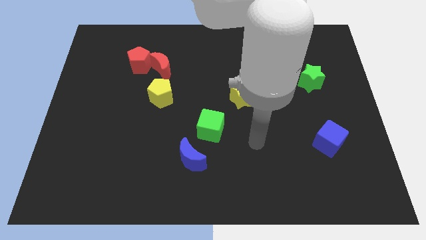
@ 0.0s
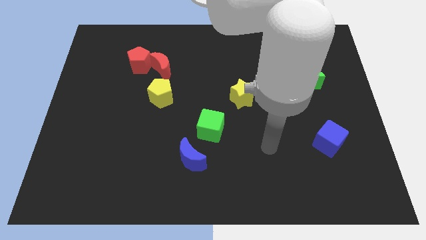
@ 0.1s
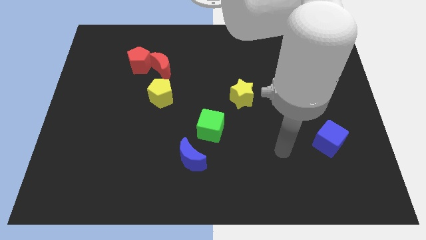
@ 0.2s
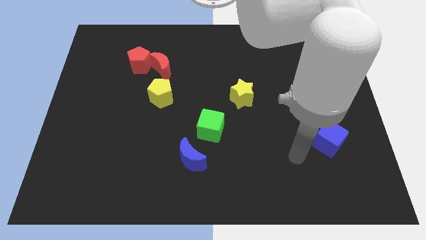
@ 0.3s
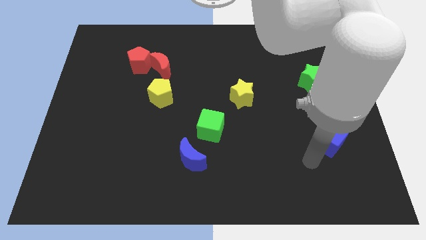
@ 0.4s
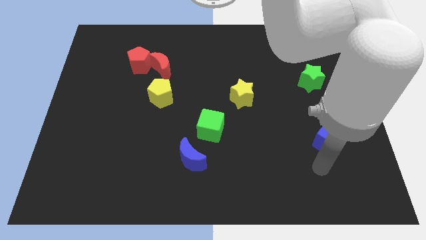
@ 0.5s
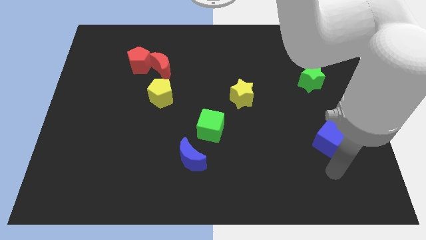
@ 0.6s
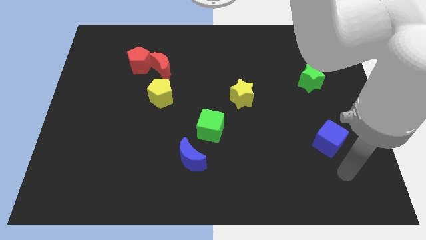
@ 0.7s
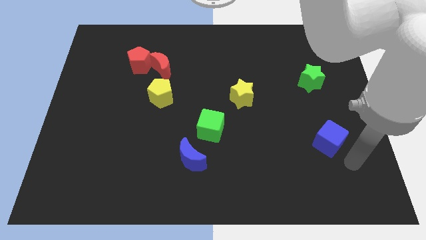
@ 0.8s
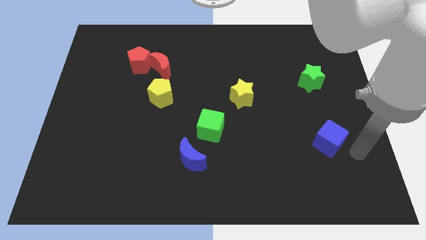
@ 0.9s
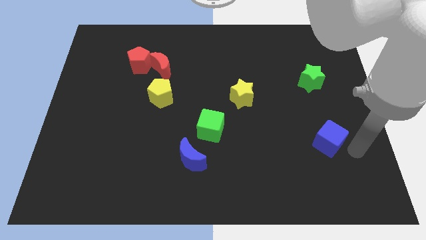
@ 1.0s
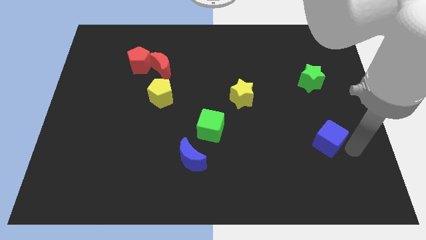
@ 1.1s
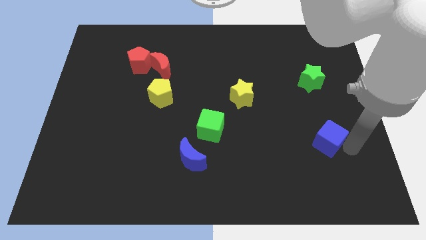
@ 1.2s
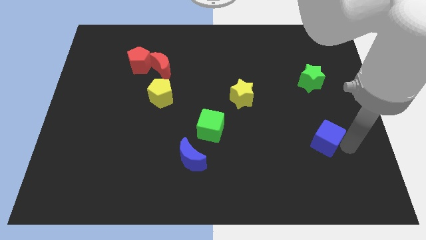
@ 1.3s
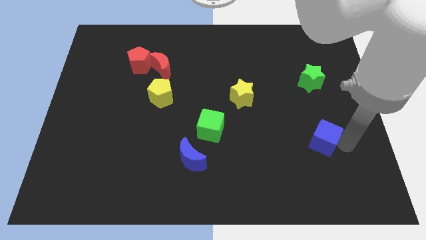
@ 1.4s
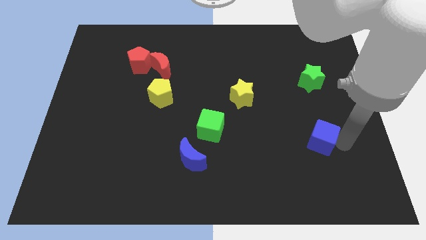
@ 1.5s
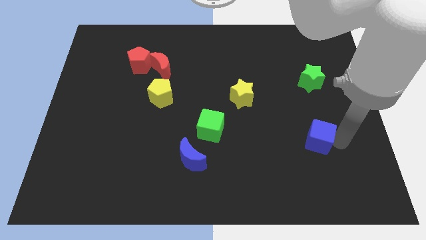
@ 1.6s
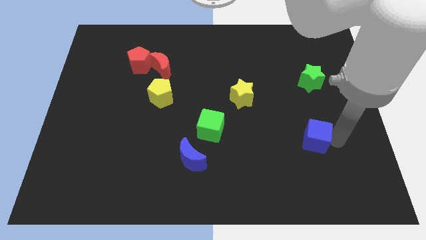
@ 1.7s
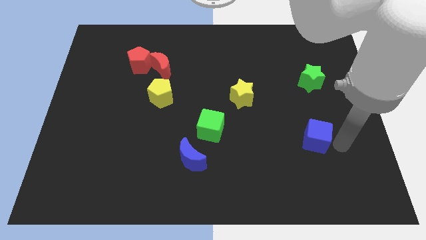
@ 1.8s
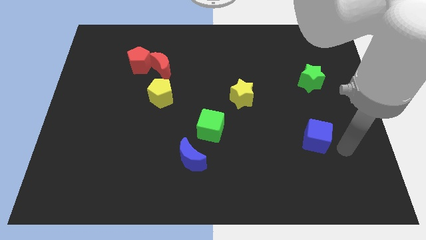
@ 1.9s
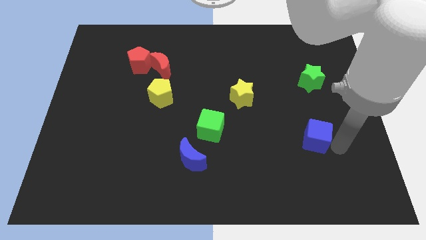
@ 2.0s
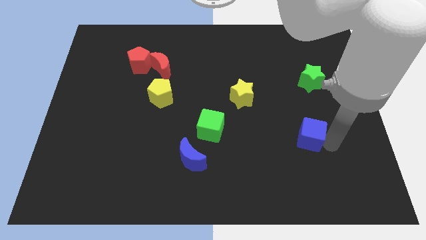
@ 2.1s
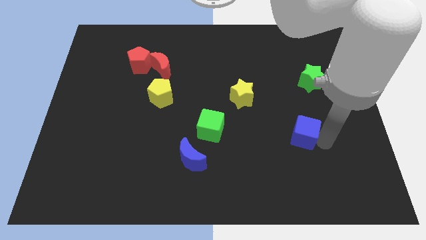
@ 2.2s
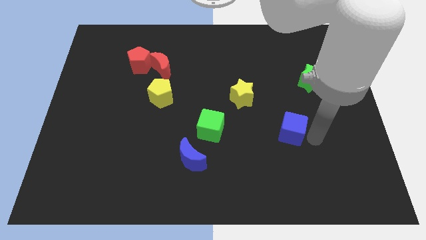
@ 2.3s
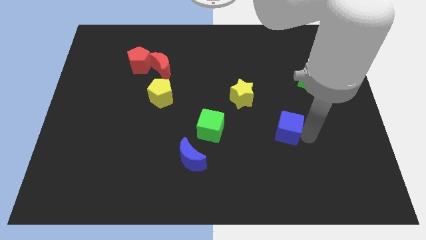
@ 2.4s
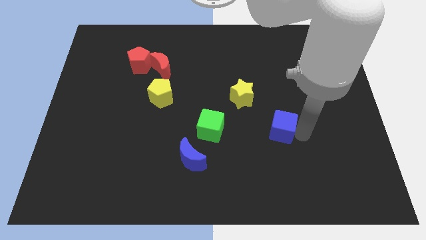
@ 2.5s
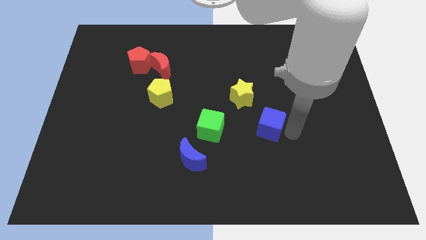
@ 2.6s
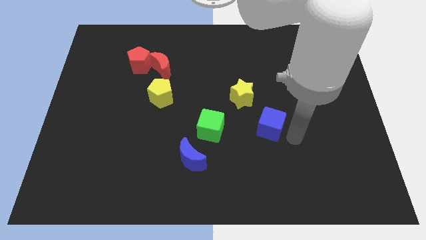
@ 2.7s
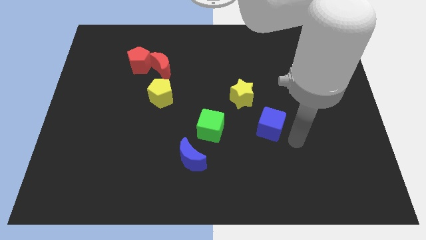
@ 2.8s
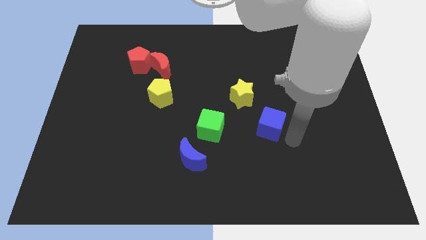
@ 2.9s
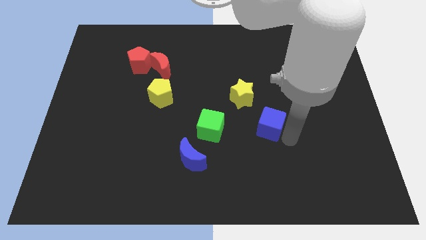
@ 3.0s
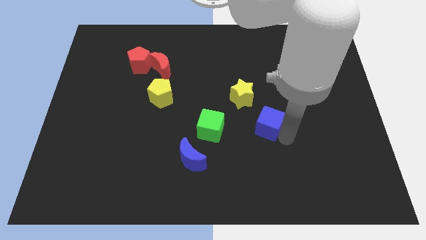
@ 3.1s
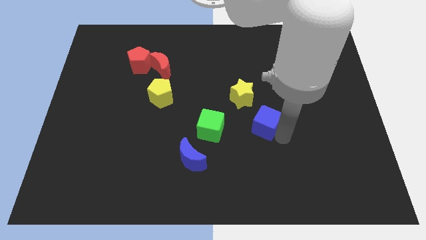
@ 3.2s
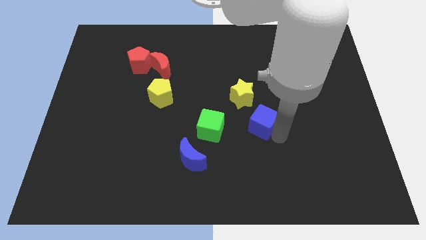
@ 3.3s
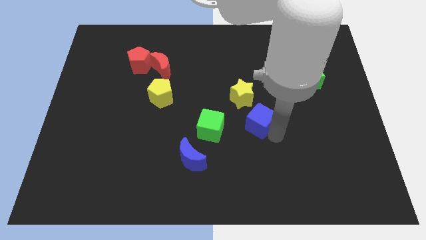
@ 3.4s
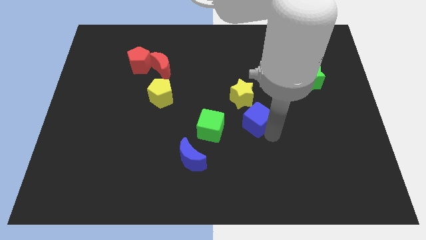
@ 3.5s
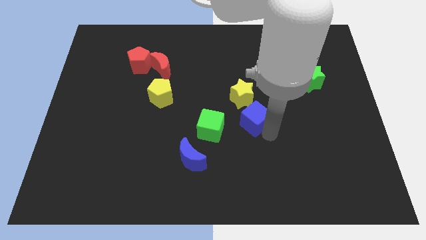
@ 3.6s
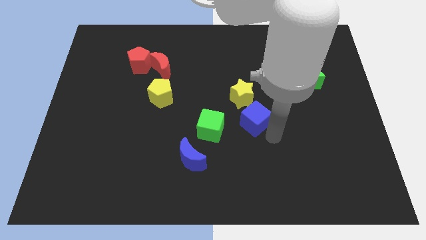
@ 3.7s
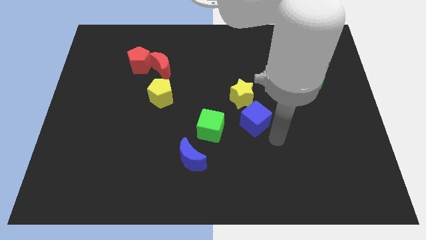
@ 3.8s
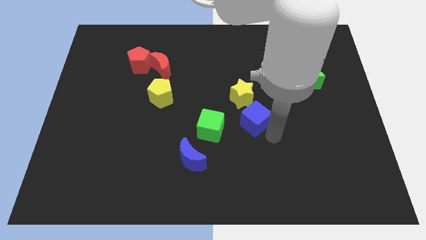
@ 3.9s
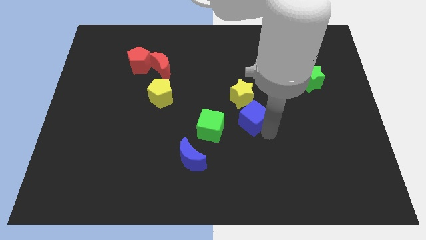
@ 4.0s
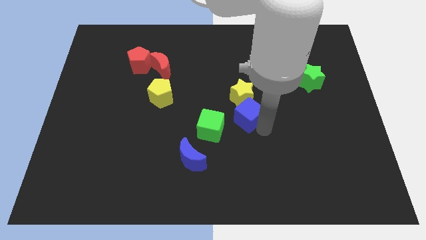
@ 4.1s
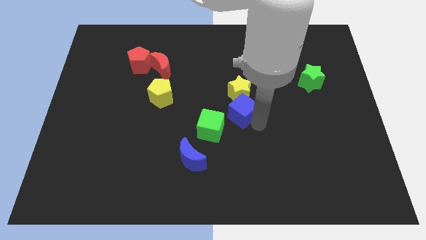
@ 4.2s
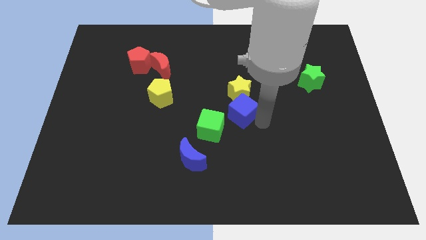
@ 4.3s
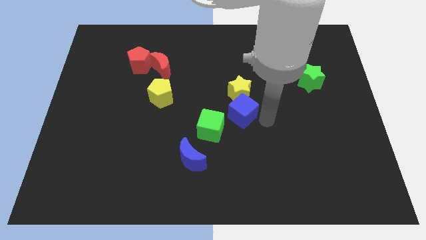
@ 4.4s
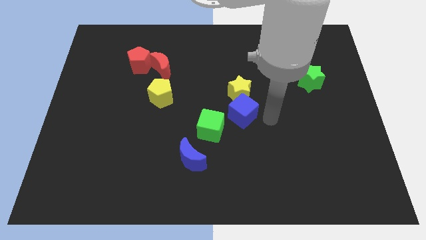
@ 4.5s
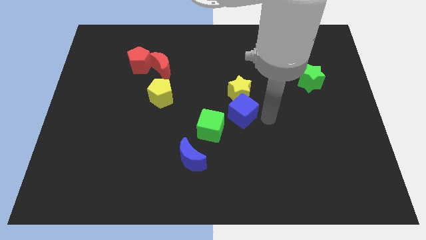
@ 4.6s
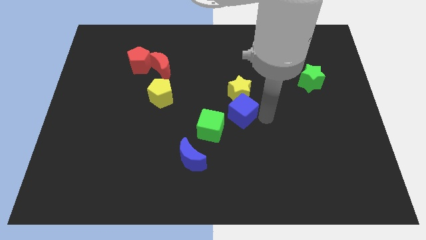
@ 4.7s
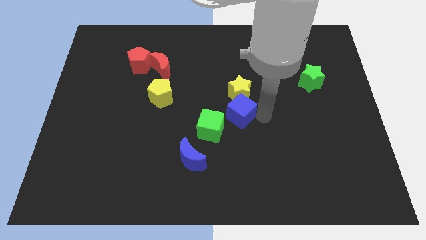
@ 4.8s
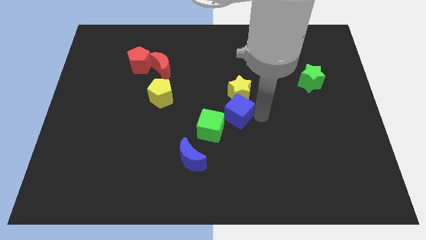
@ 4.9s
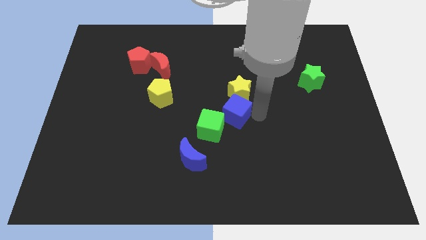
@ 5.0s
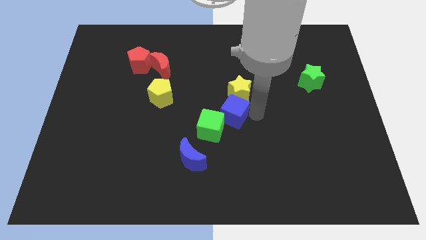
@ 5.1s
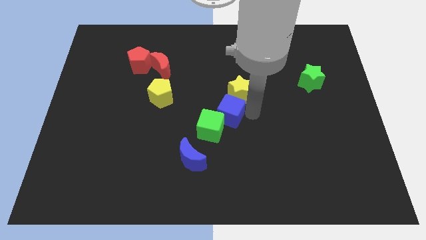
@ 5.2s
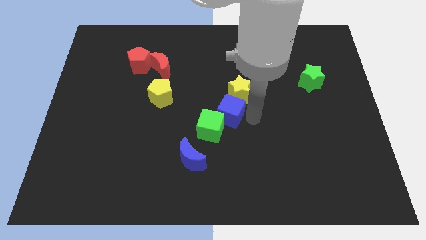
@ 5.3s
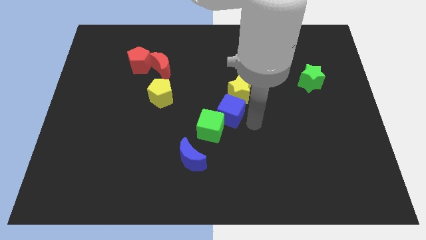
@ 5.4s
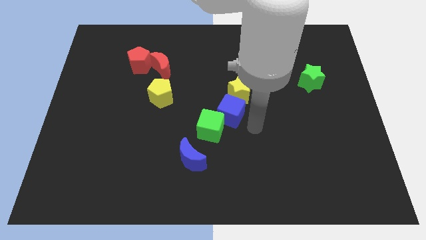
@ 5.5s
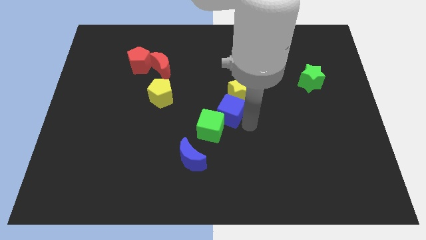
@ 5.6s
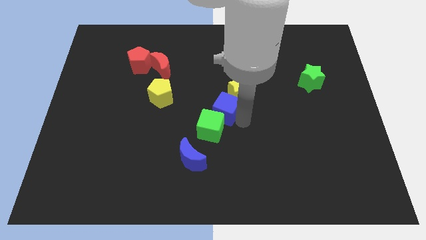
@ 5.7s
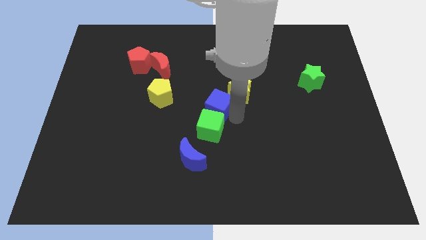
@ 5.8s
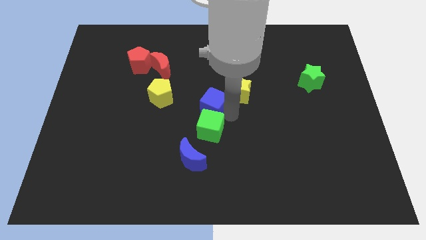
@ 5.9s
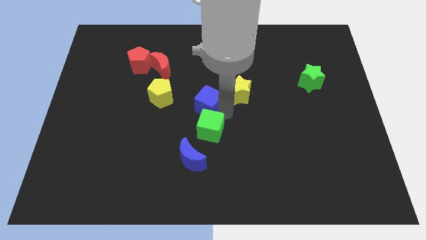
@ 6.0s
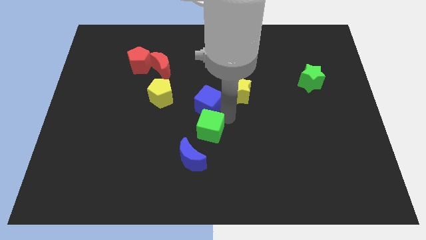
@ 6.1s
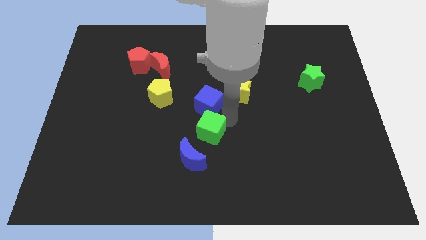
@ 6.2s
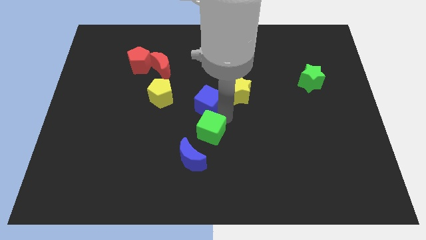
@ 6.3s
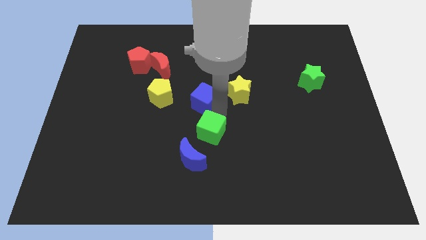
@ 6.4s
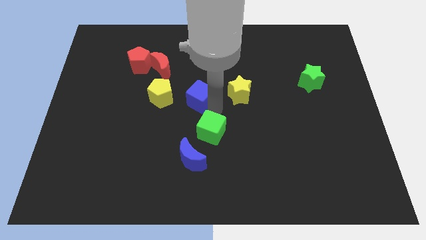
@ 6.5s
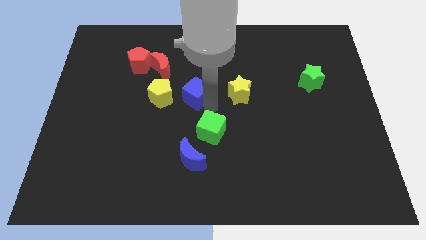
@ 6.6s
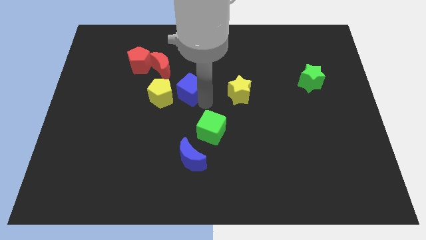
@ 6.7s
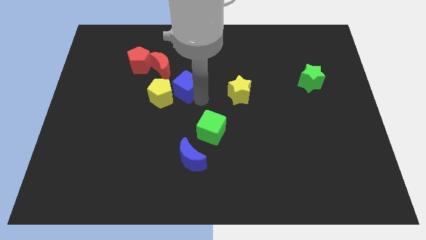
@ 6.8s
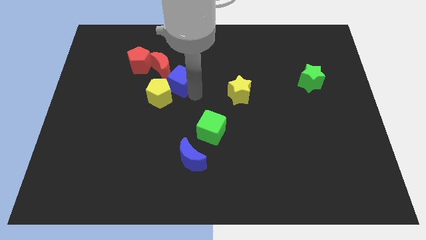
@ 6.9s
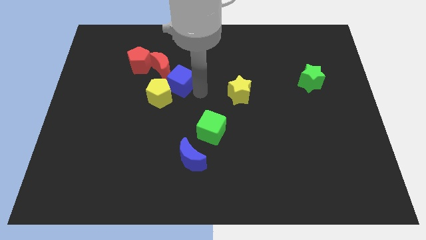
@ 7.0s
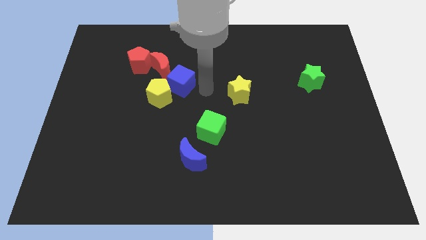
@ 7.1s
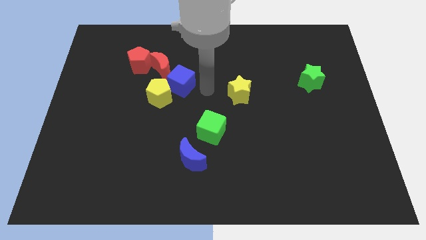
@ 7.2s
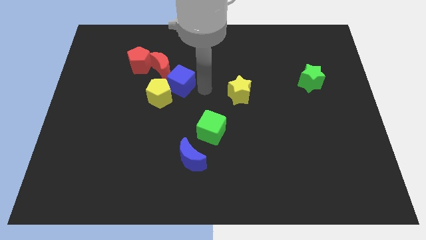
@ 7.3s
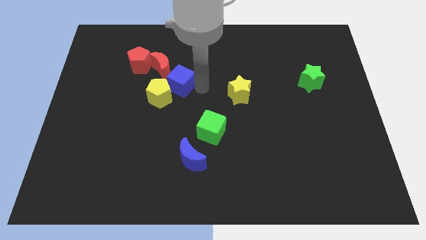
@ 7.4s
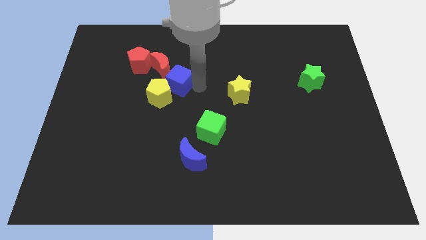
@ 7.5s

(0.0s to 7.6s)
move the blue cube to the bottom right side of the red pentagon
